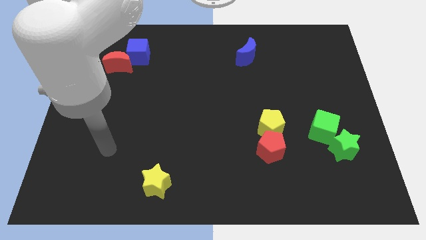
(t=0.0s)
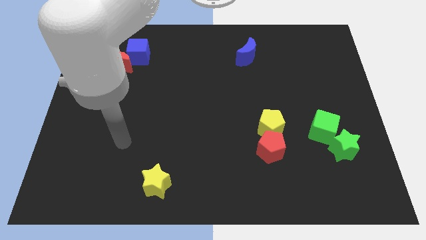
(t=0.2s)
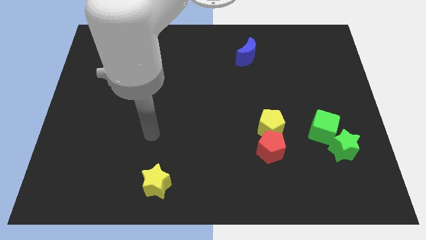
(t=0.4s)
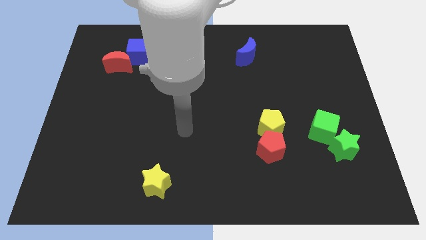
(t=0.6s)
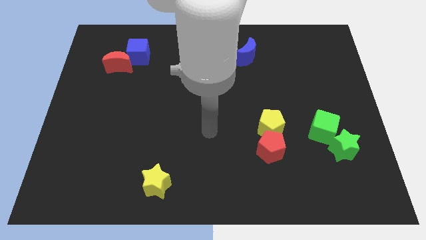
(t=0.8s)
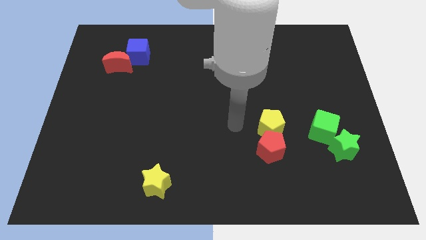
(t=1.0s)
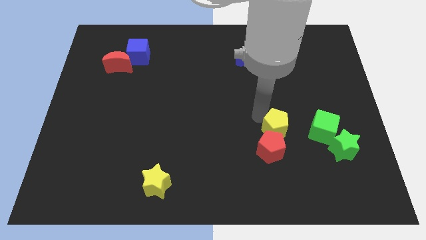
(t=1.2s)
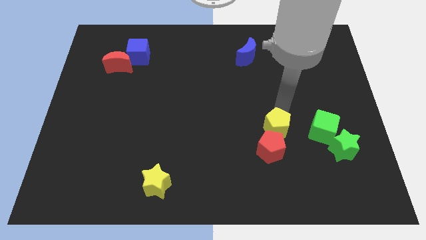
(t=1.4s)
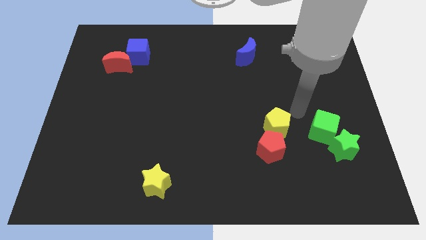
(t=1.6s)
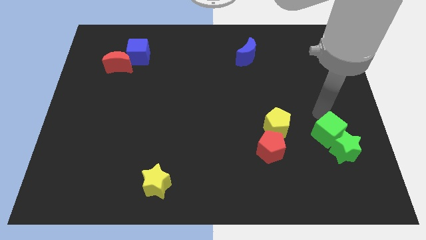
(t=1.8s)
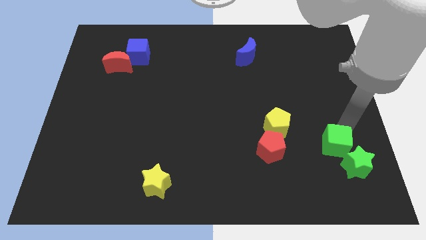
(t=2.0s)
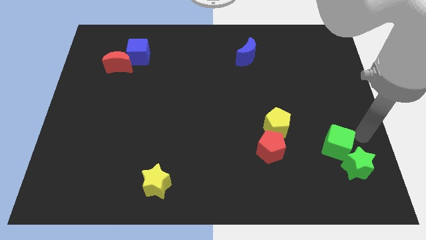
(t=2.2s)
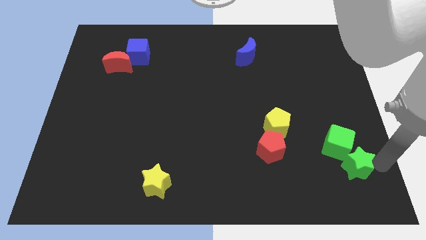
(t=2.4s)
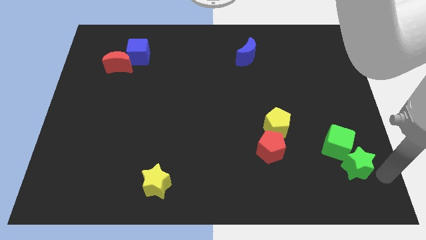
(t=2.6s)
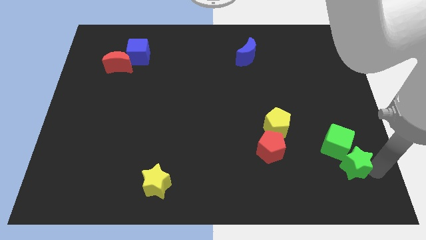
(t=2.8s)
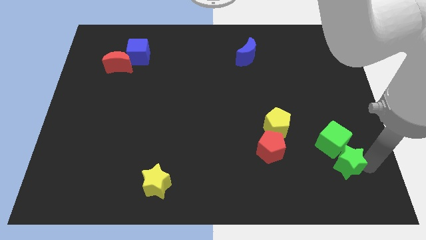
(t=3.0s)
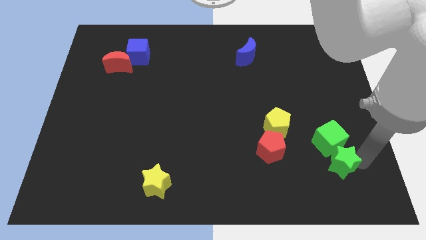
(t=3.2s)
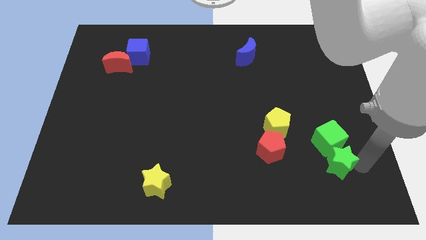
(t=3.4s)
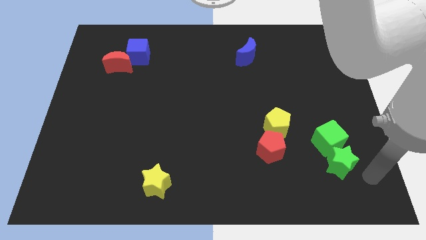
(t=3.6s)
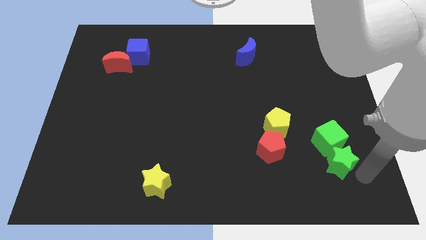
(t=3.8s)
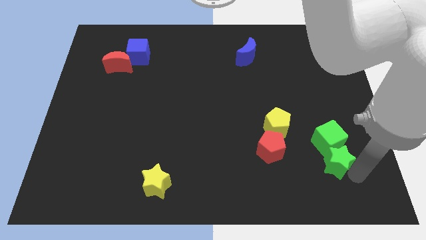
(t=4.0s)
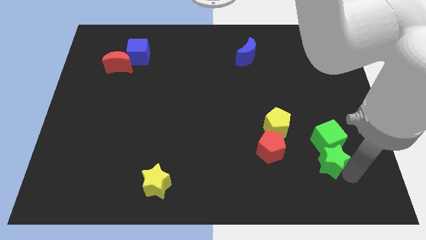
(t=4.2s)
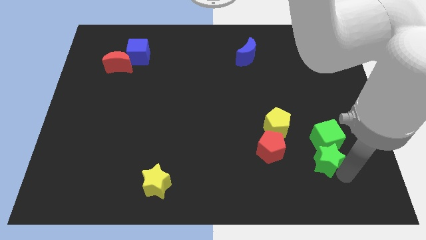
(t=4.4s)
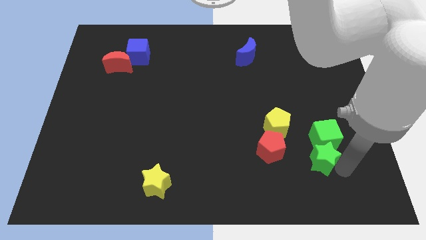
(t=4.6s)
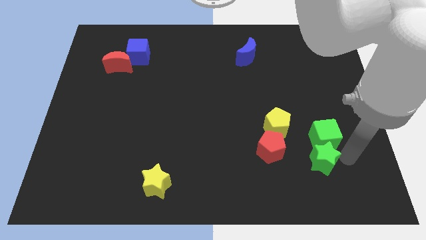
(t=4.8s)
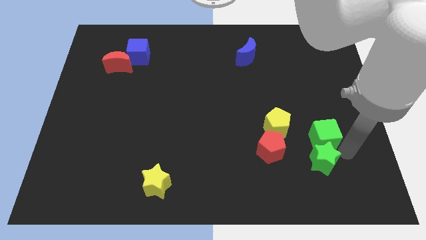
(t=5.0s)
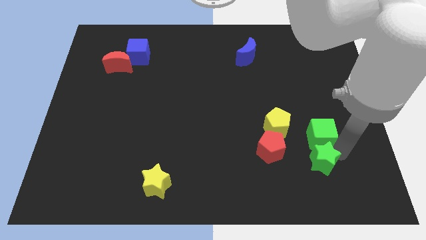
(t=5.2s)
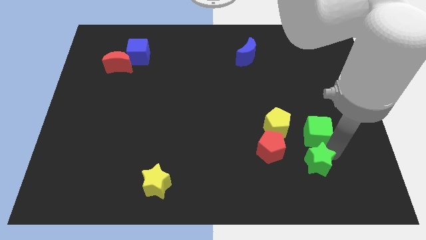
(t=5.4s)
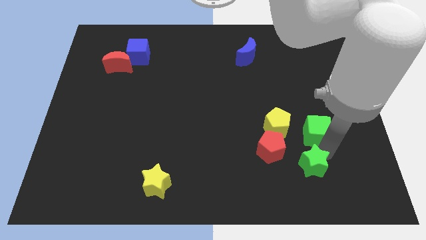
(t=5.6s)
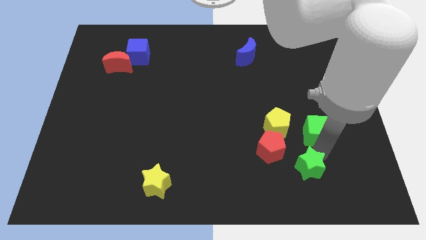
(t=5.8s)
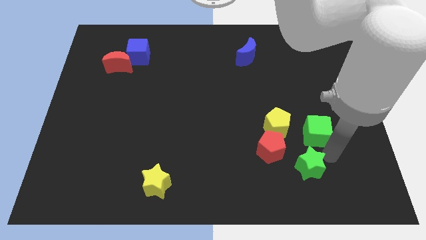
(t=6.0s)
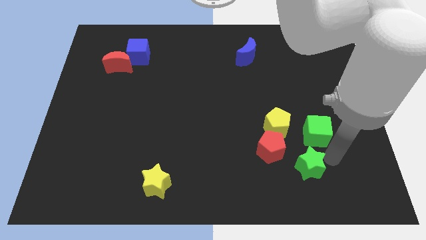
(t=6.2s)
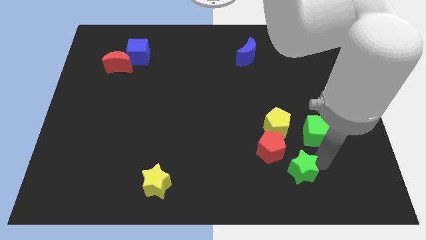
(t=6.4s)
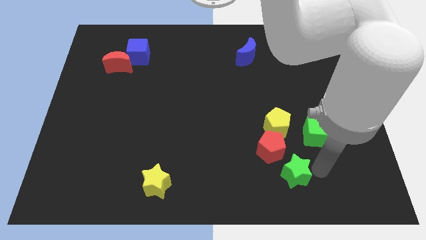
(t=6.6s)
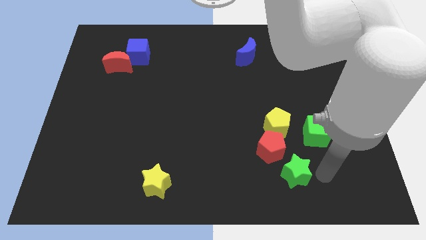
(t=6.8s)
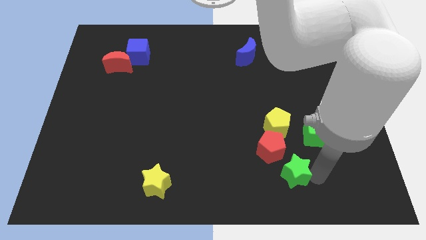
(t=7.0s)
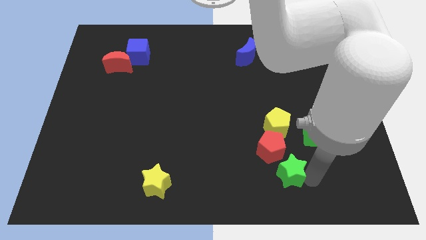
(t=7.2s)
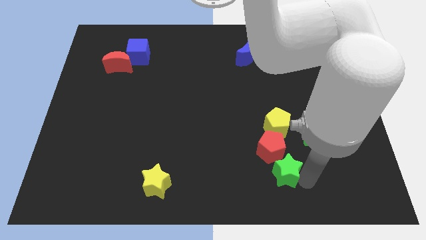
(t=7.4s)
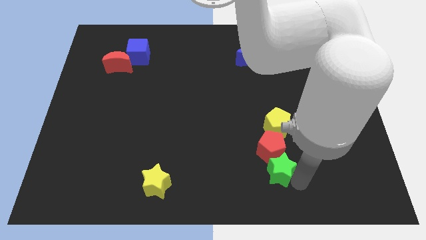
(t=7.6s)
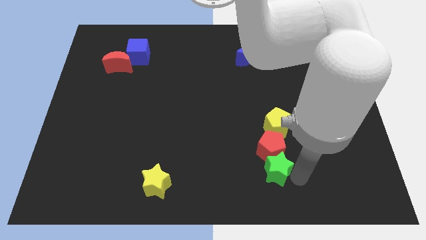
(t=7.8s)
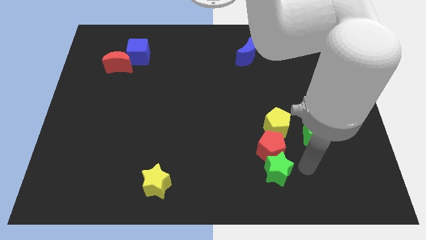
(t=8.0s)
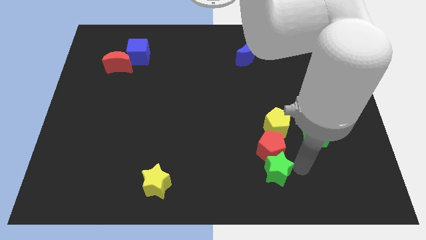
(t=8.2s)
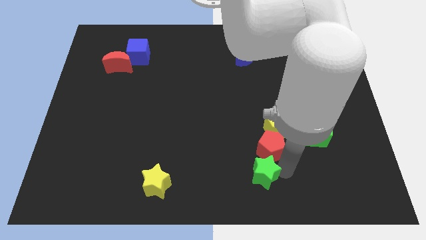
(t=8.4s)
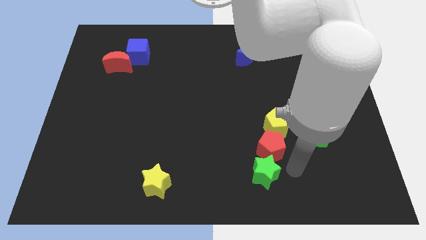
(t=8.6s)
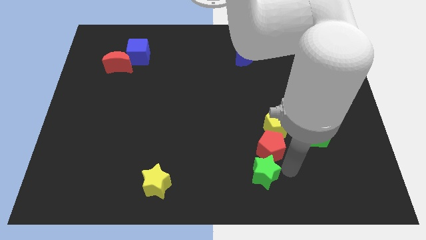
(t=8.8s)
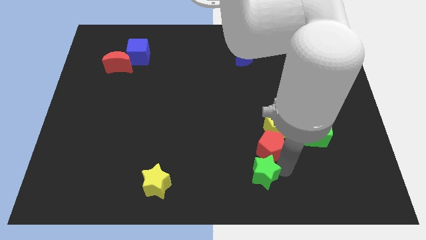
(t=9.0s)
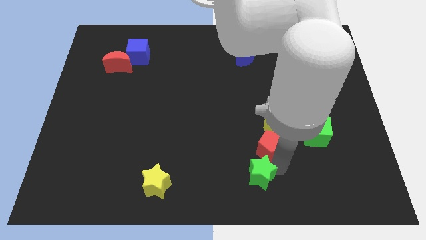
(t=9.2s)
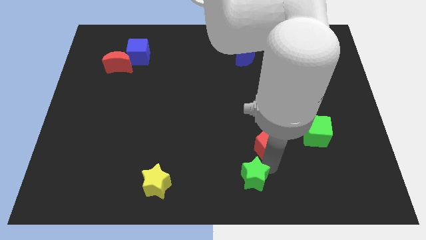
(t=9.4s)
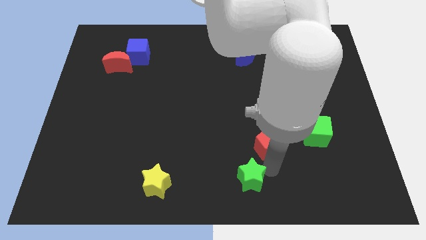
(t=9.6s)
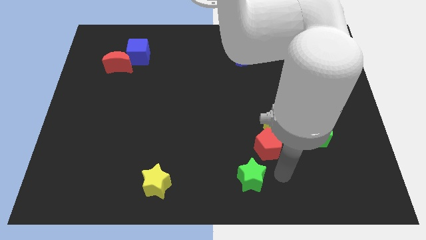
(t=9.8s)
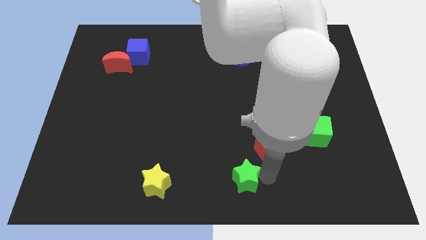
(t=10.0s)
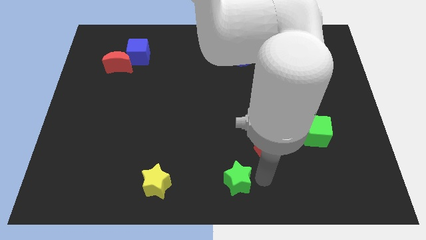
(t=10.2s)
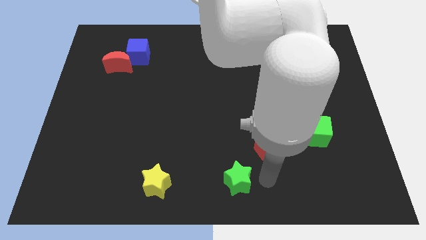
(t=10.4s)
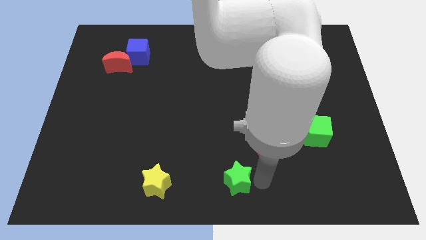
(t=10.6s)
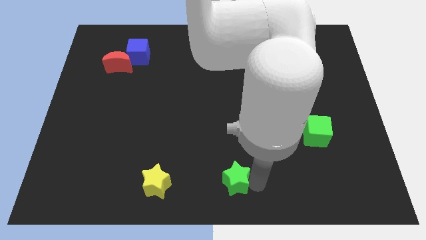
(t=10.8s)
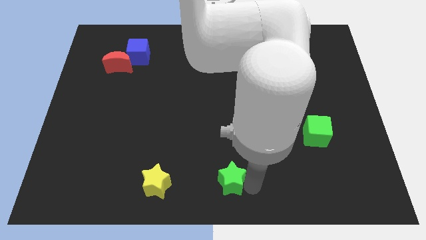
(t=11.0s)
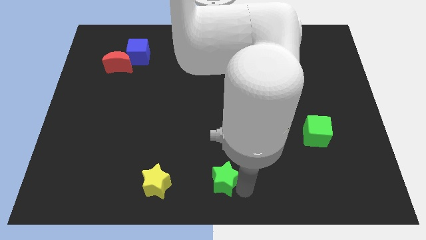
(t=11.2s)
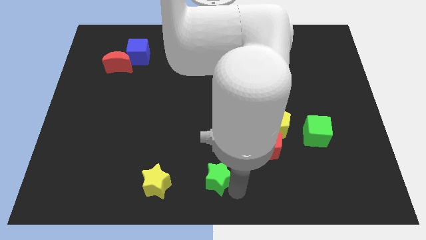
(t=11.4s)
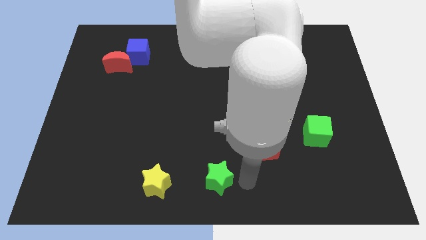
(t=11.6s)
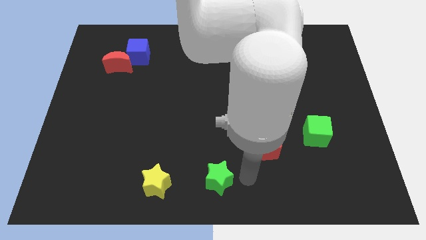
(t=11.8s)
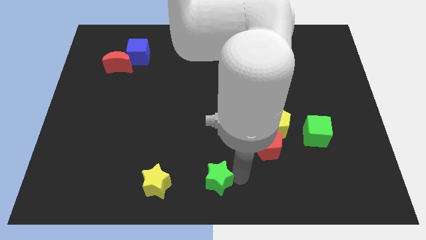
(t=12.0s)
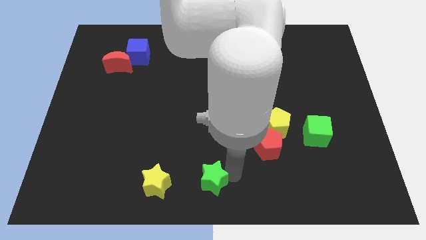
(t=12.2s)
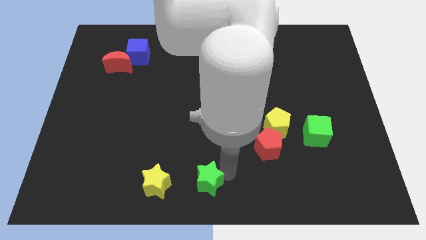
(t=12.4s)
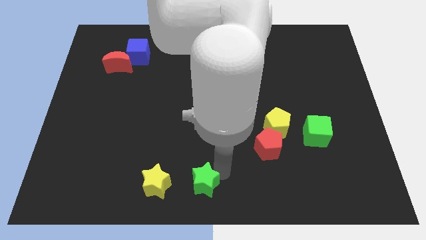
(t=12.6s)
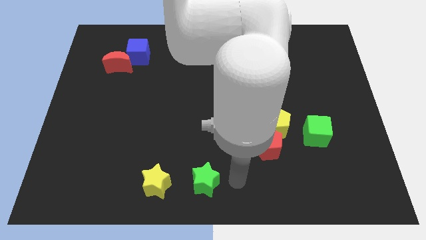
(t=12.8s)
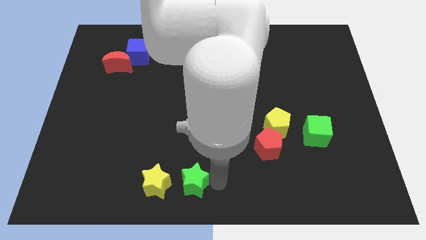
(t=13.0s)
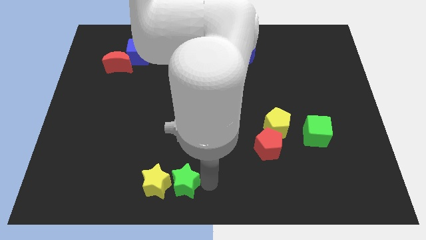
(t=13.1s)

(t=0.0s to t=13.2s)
put the green star close to the yellow star
